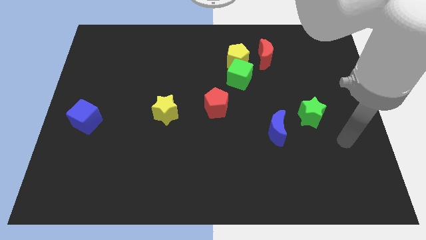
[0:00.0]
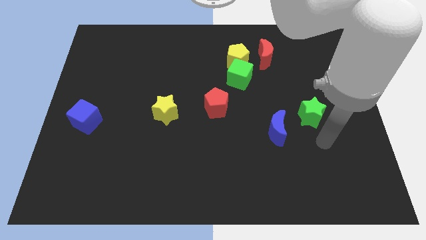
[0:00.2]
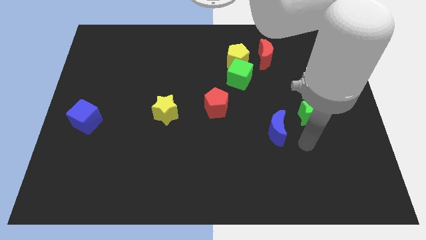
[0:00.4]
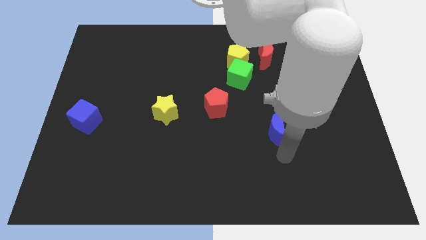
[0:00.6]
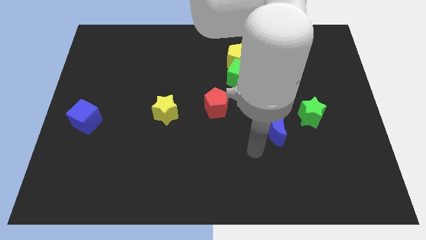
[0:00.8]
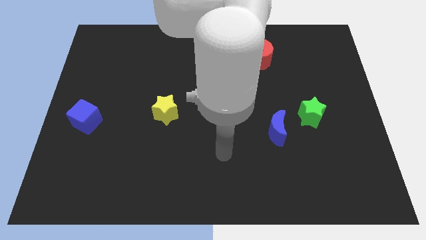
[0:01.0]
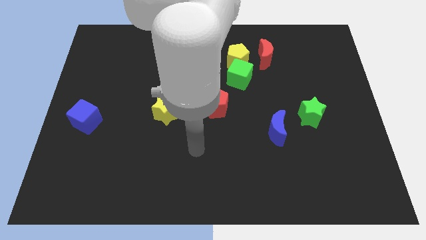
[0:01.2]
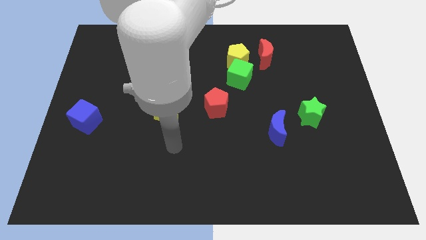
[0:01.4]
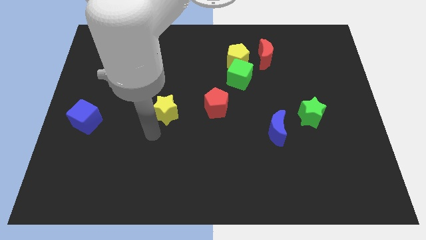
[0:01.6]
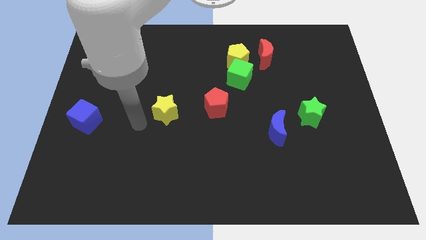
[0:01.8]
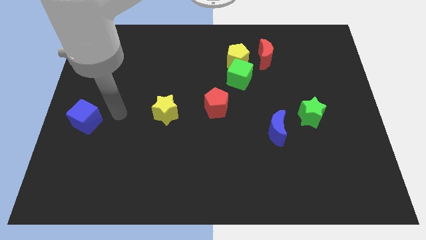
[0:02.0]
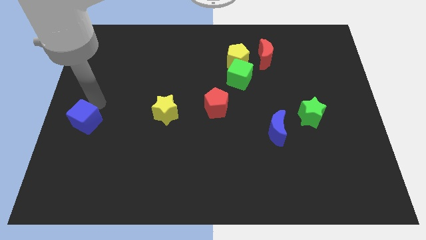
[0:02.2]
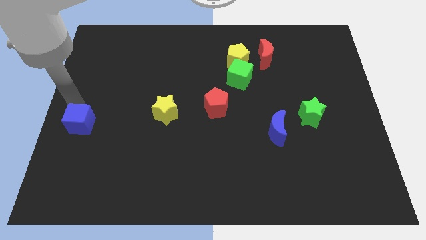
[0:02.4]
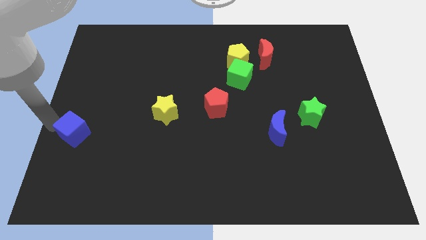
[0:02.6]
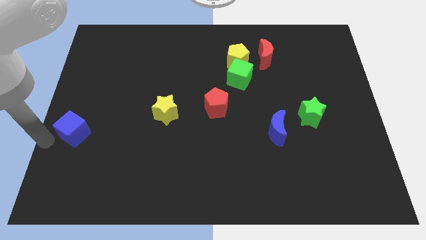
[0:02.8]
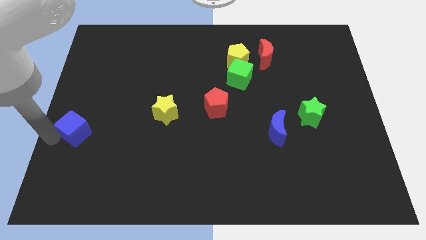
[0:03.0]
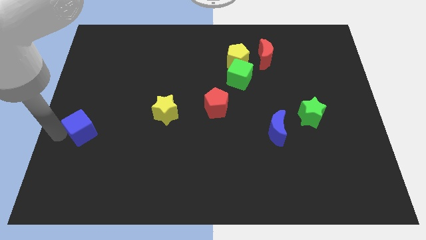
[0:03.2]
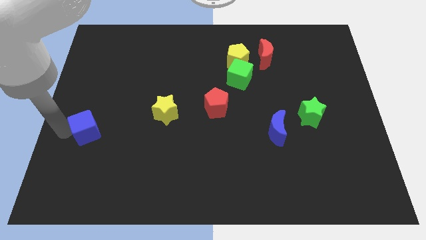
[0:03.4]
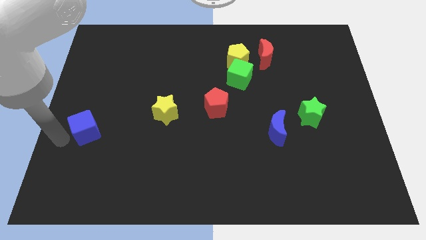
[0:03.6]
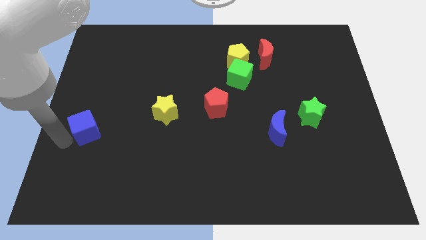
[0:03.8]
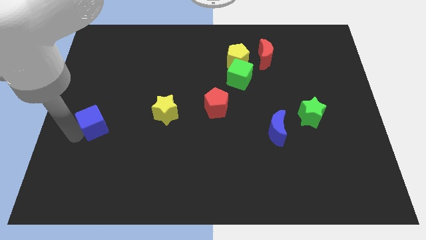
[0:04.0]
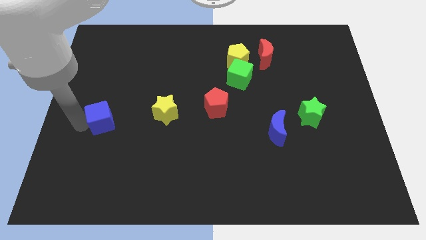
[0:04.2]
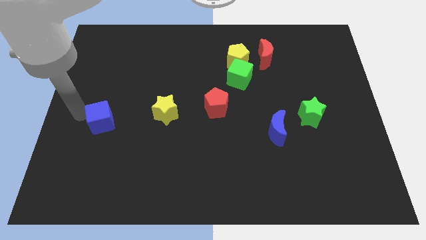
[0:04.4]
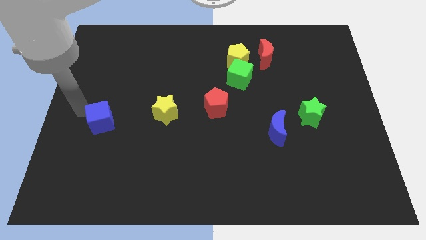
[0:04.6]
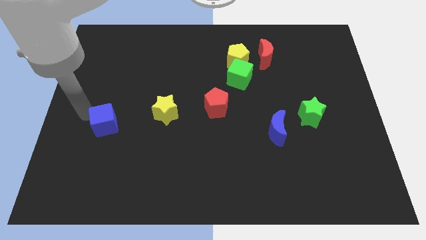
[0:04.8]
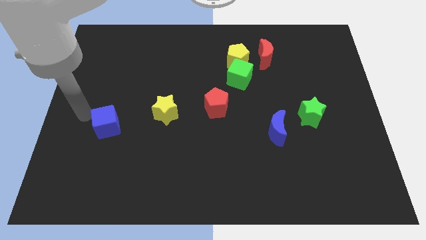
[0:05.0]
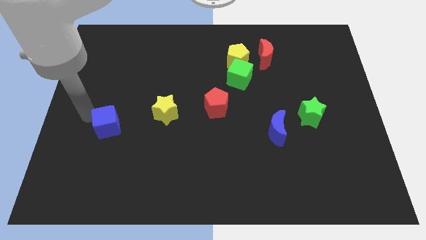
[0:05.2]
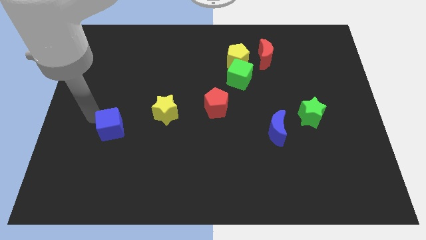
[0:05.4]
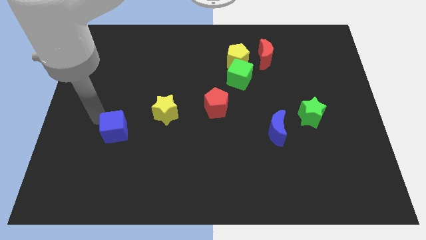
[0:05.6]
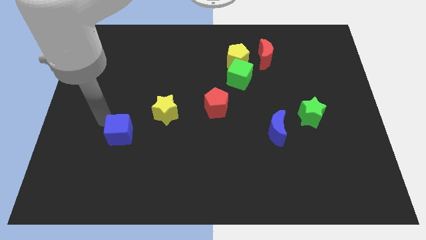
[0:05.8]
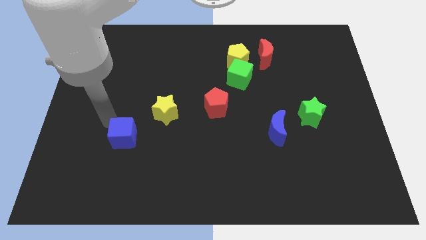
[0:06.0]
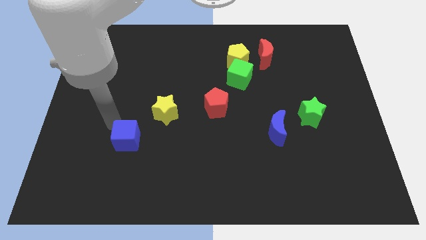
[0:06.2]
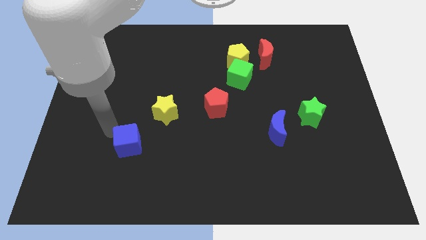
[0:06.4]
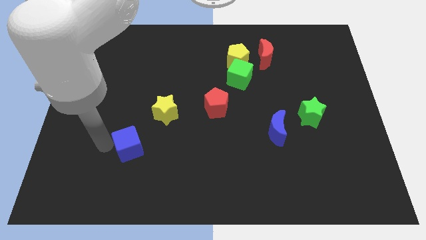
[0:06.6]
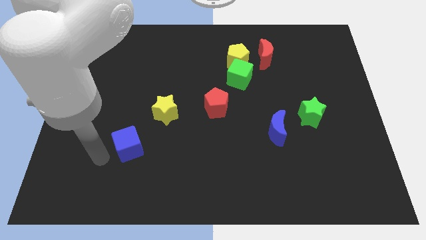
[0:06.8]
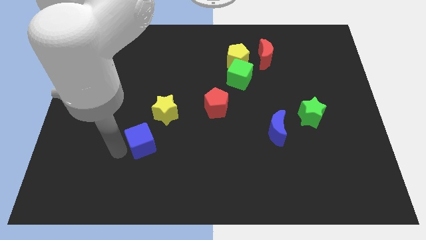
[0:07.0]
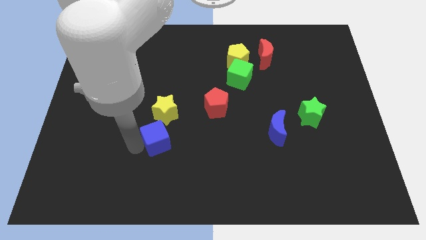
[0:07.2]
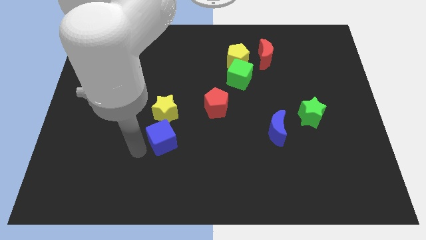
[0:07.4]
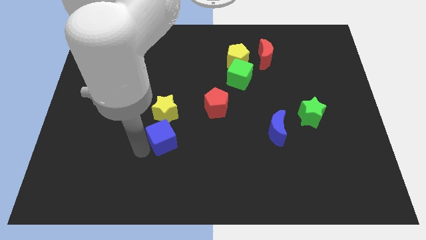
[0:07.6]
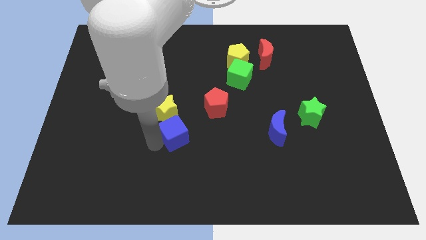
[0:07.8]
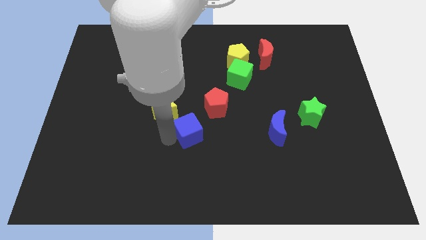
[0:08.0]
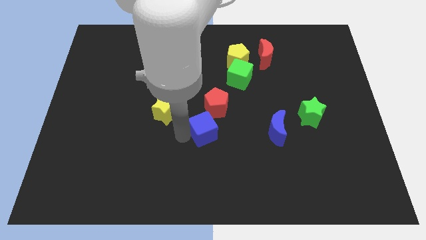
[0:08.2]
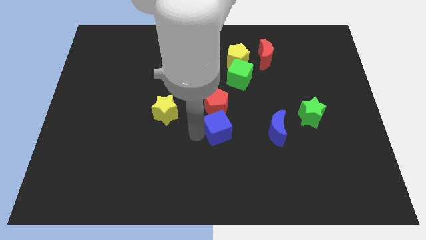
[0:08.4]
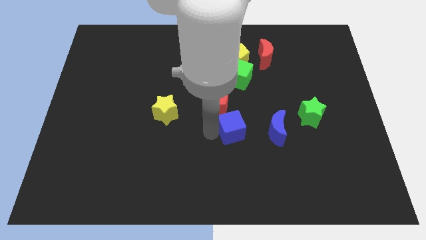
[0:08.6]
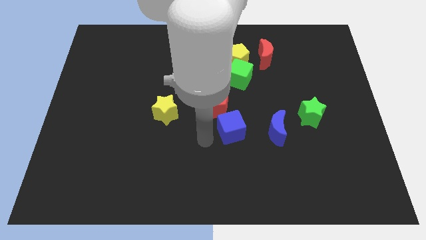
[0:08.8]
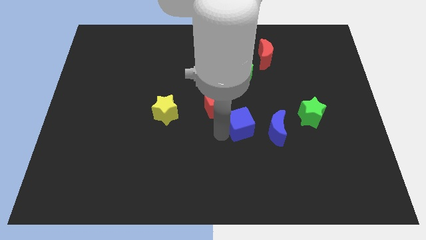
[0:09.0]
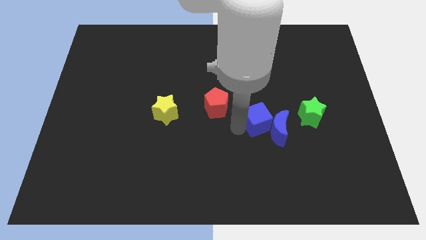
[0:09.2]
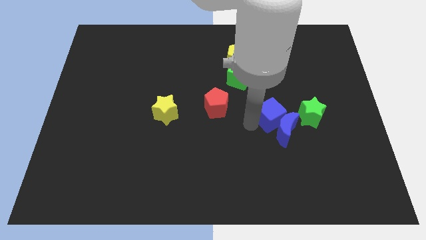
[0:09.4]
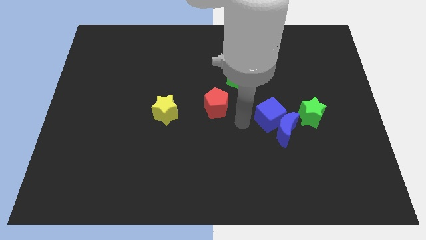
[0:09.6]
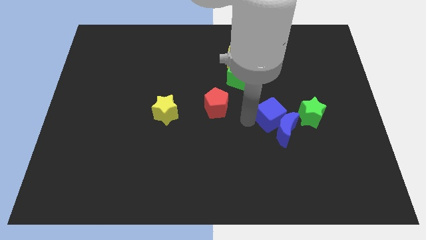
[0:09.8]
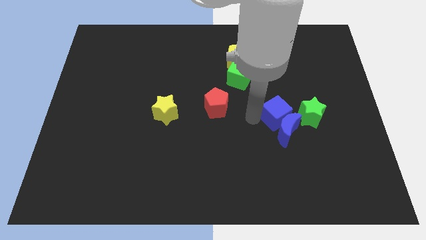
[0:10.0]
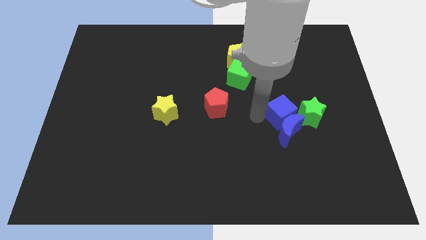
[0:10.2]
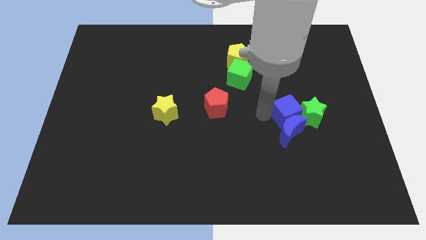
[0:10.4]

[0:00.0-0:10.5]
slide the blue cube towards the green star

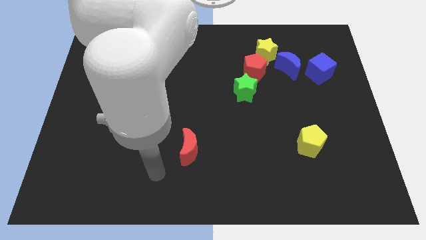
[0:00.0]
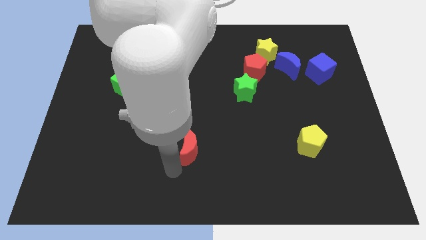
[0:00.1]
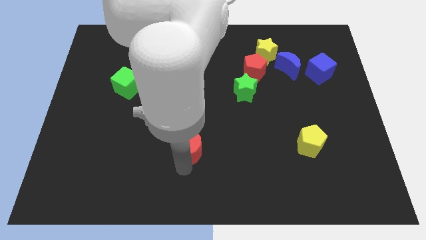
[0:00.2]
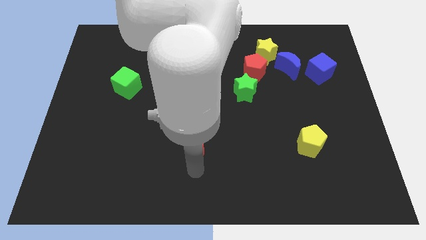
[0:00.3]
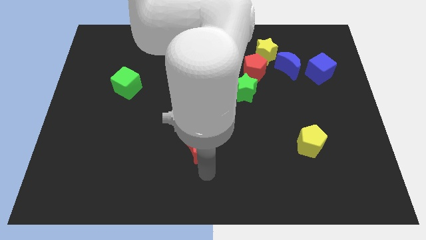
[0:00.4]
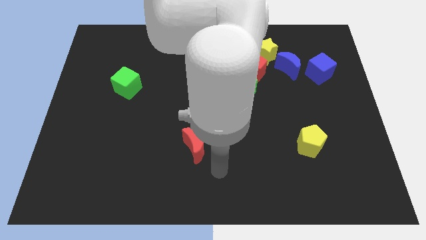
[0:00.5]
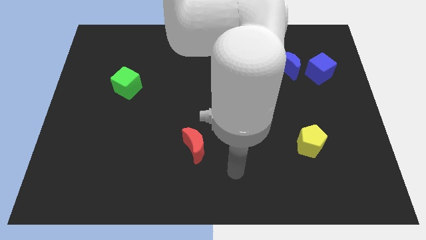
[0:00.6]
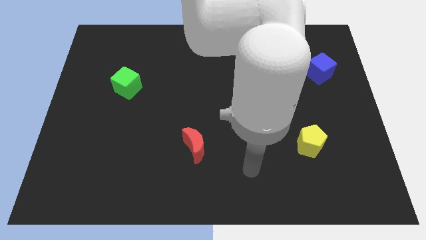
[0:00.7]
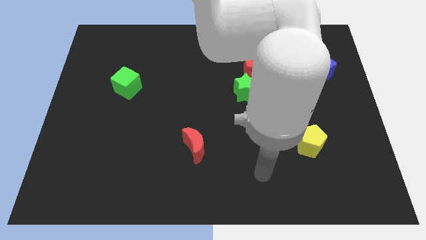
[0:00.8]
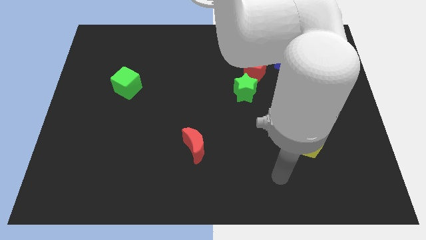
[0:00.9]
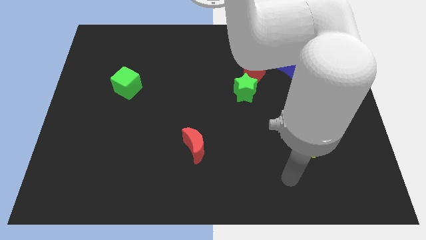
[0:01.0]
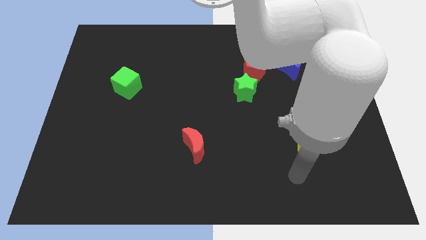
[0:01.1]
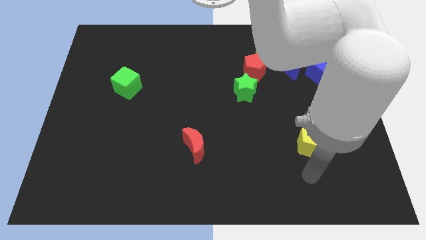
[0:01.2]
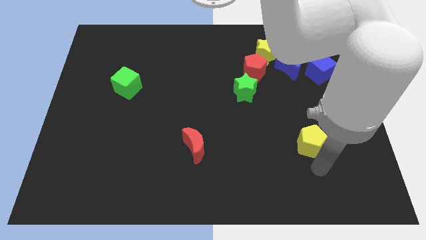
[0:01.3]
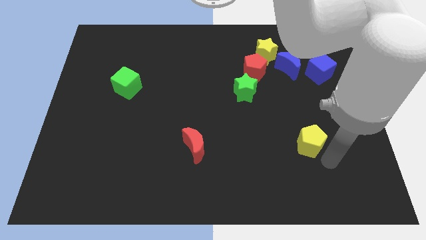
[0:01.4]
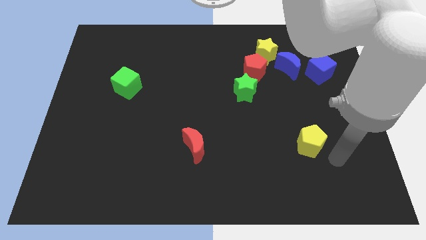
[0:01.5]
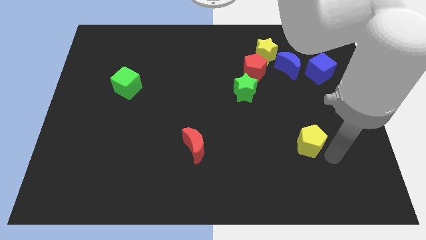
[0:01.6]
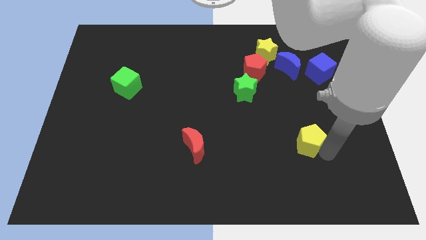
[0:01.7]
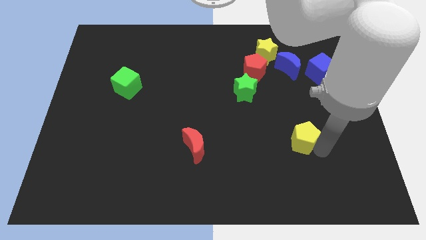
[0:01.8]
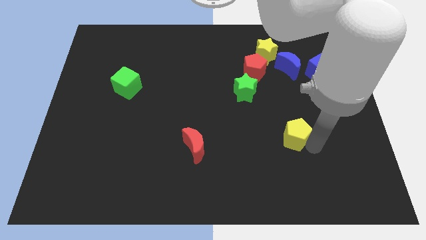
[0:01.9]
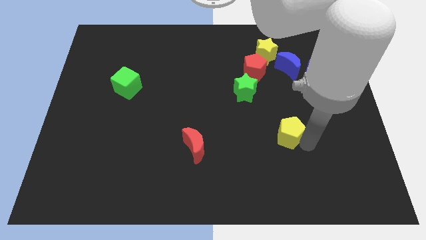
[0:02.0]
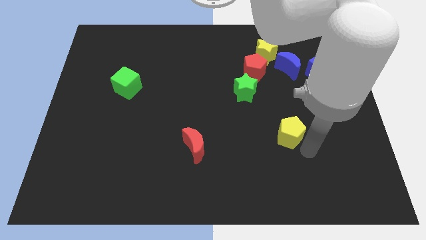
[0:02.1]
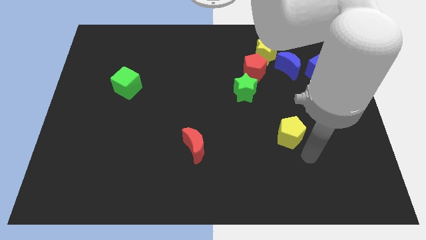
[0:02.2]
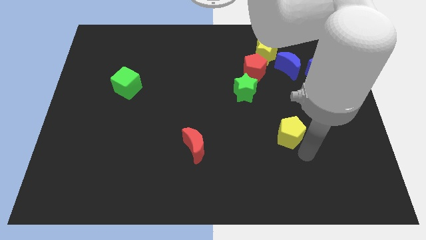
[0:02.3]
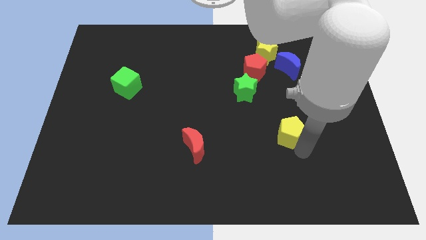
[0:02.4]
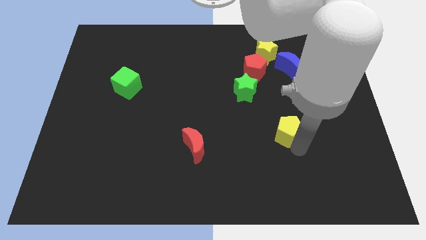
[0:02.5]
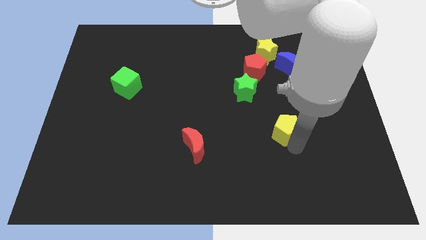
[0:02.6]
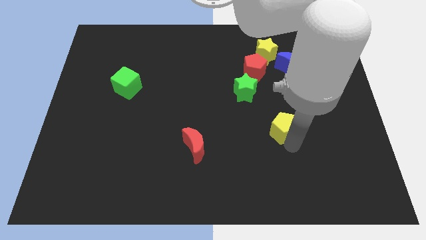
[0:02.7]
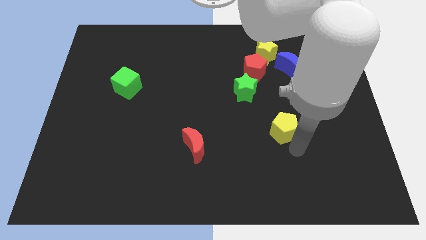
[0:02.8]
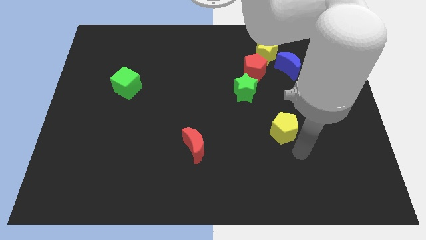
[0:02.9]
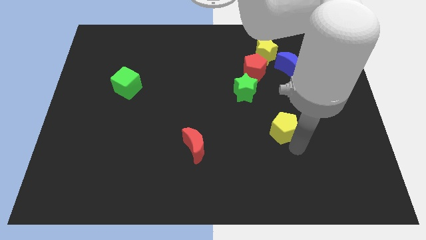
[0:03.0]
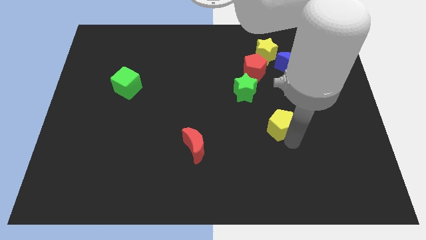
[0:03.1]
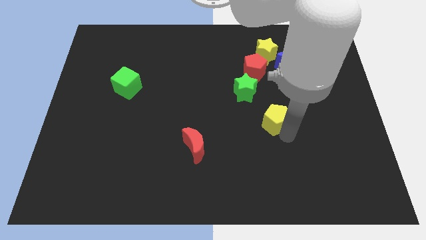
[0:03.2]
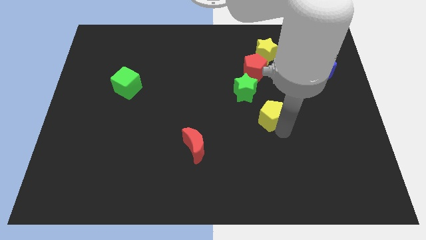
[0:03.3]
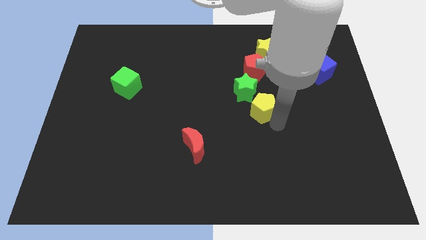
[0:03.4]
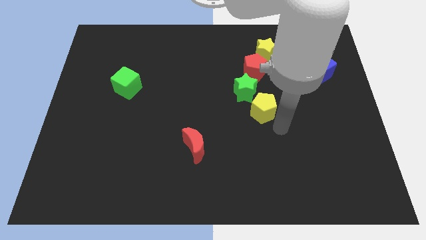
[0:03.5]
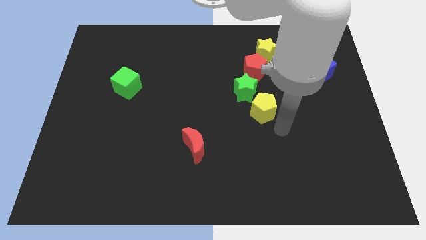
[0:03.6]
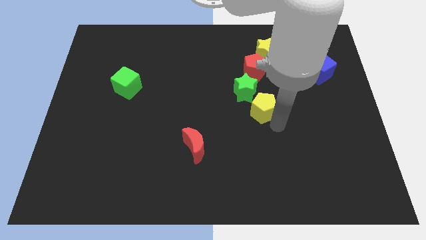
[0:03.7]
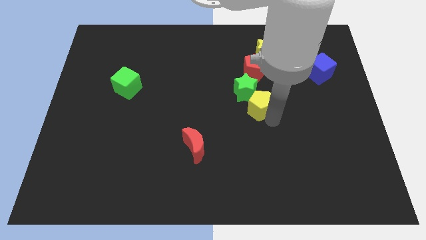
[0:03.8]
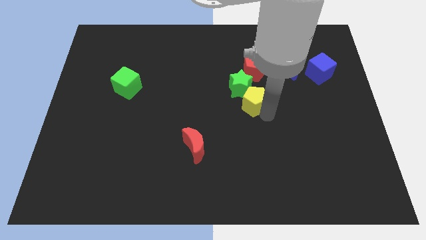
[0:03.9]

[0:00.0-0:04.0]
put the yellow pentagon close to the green star
